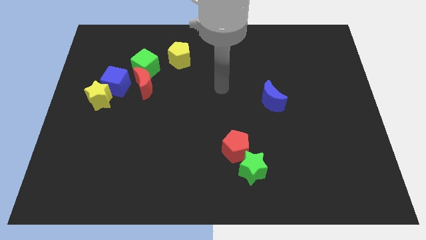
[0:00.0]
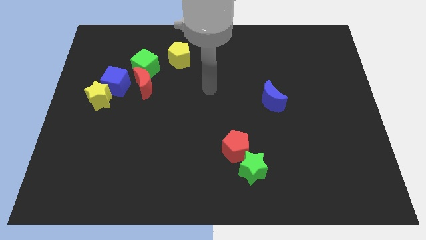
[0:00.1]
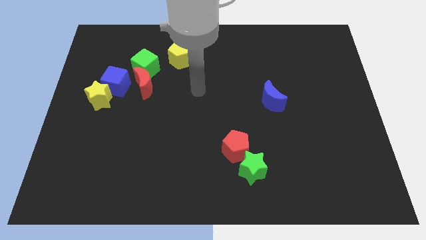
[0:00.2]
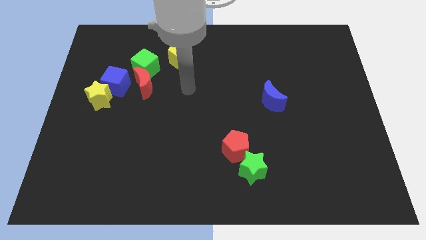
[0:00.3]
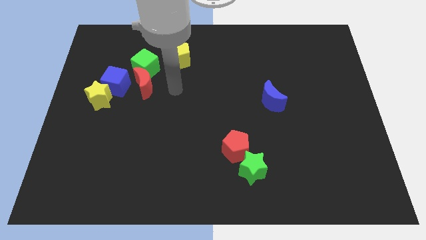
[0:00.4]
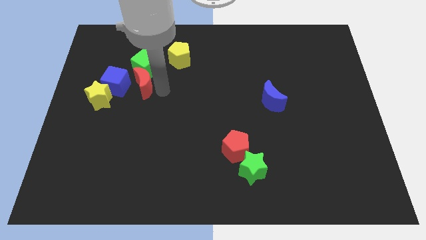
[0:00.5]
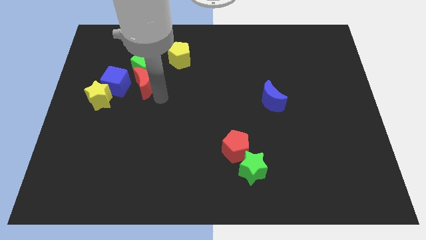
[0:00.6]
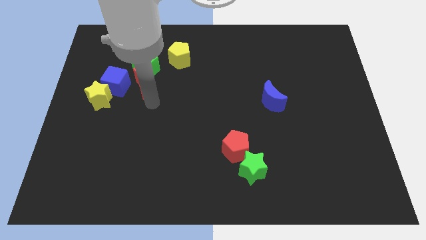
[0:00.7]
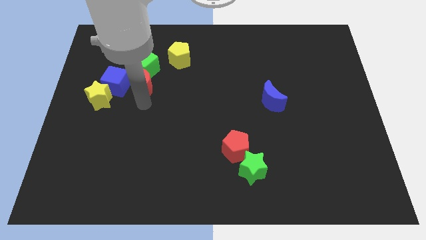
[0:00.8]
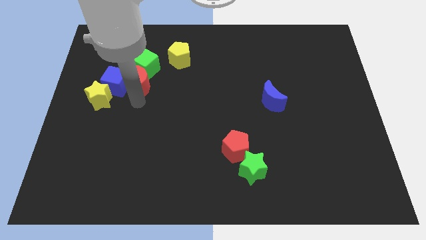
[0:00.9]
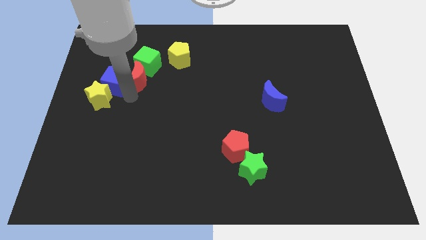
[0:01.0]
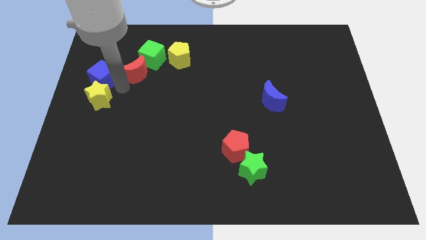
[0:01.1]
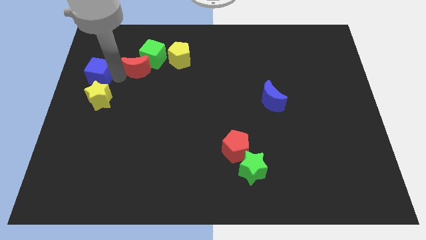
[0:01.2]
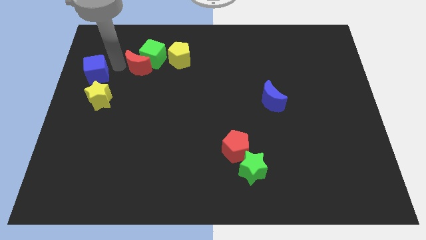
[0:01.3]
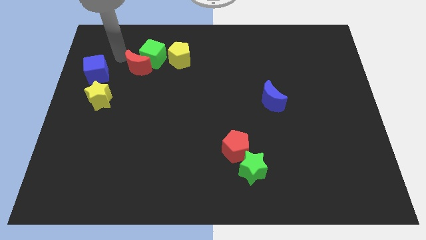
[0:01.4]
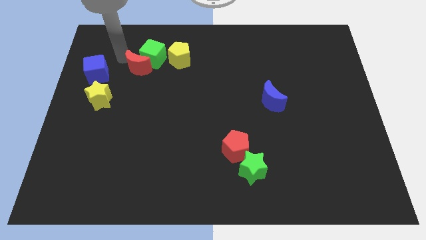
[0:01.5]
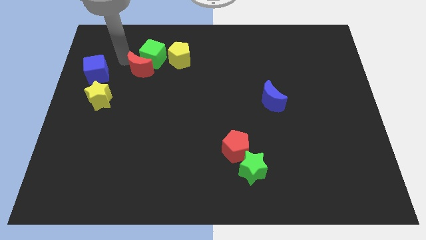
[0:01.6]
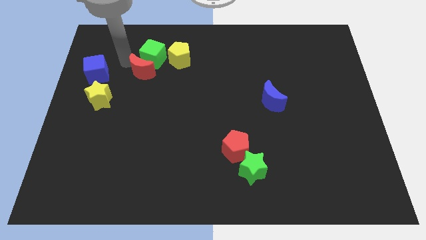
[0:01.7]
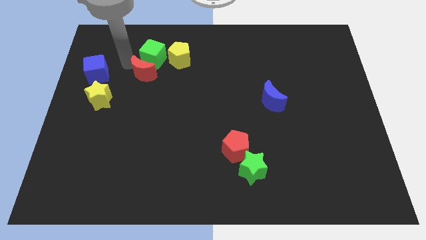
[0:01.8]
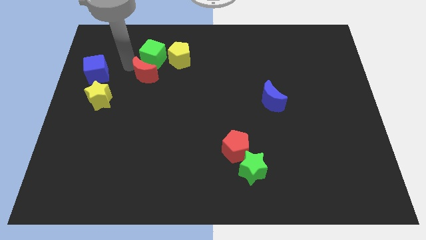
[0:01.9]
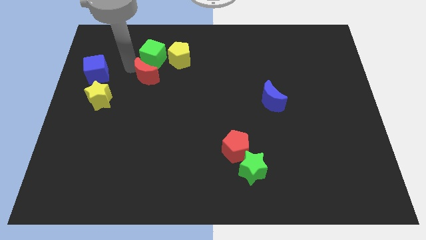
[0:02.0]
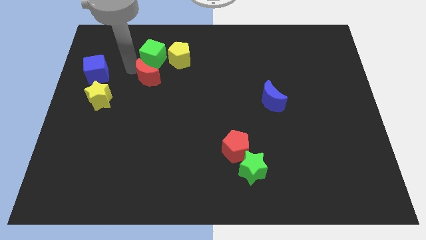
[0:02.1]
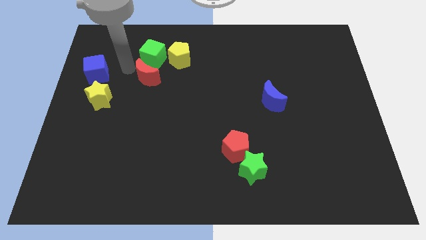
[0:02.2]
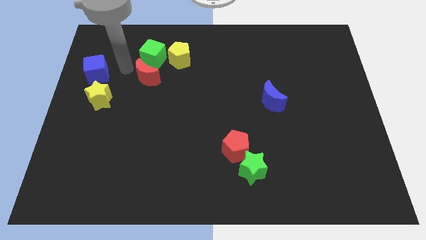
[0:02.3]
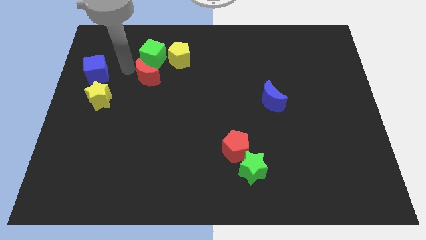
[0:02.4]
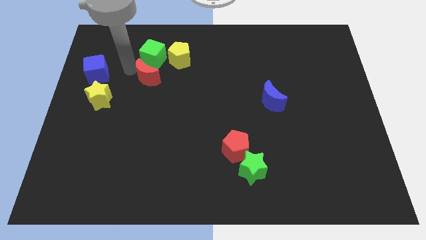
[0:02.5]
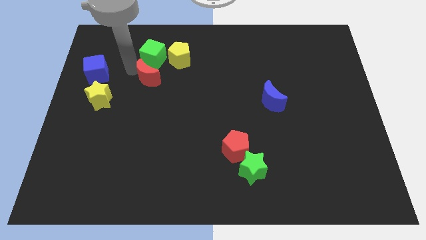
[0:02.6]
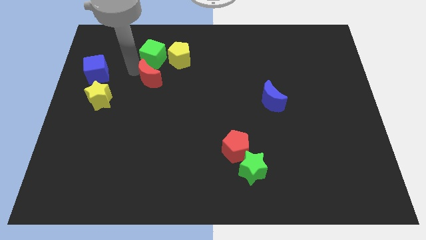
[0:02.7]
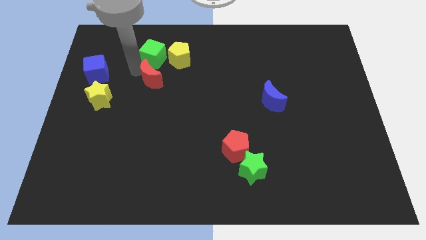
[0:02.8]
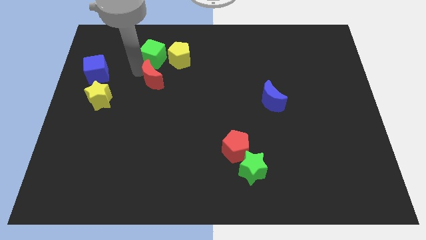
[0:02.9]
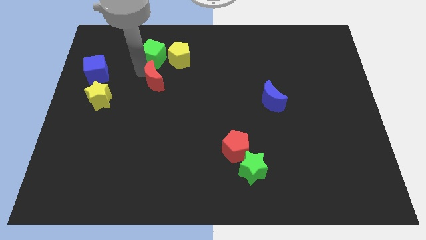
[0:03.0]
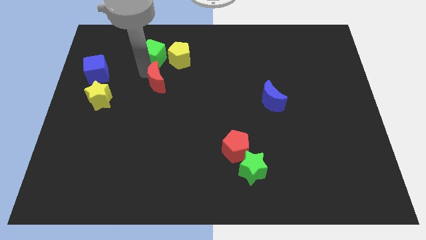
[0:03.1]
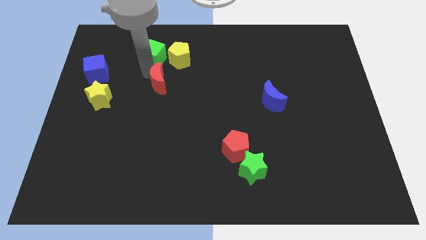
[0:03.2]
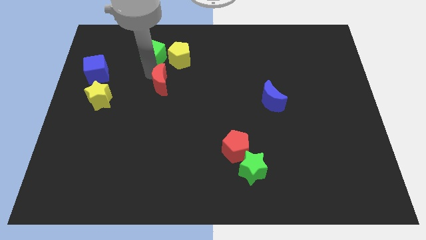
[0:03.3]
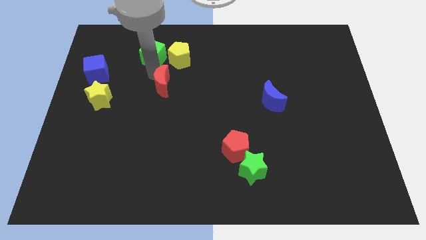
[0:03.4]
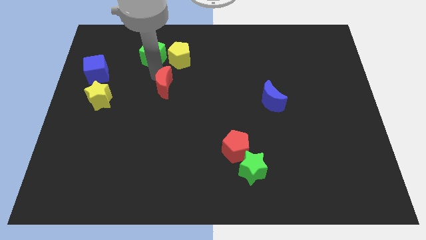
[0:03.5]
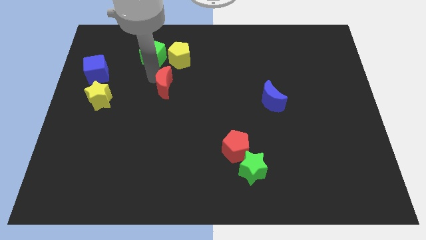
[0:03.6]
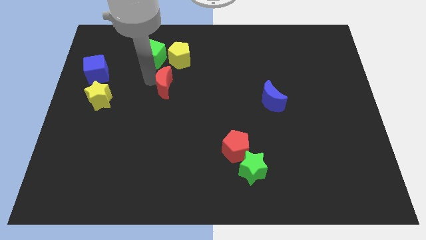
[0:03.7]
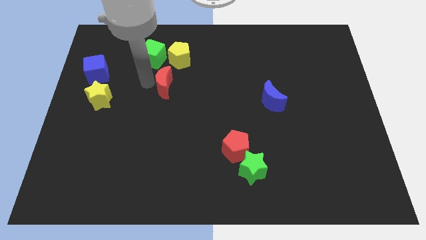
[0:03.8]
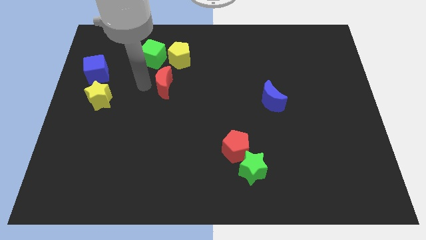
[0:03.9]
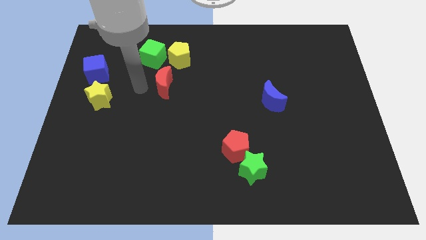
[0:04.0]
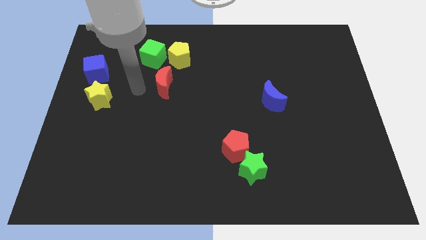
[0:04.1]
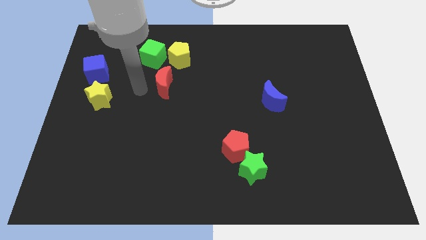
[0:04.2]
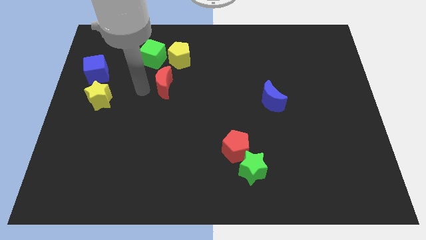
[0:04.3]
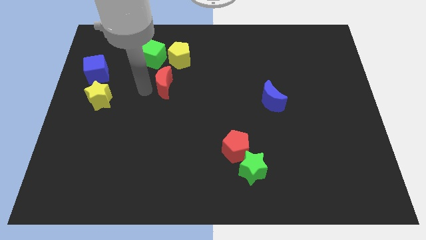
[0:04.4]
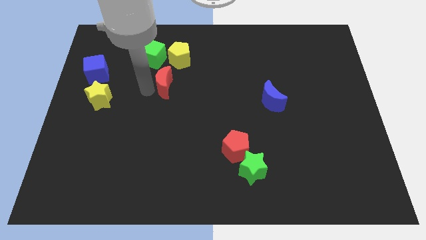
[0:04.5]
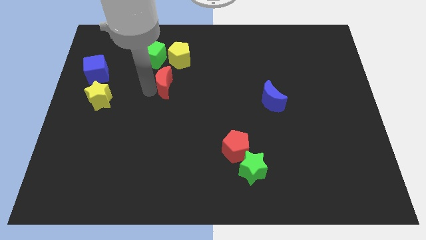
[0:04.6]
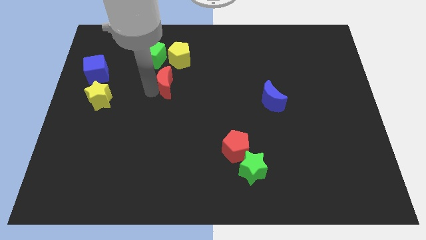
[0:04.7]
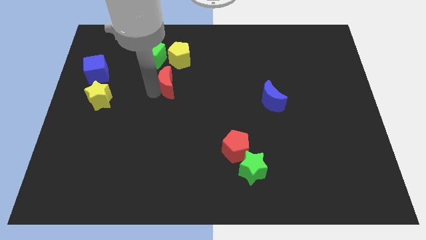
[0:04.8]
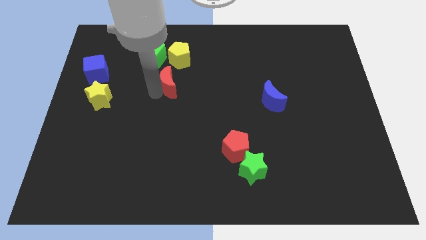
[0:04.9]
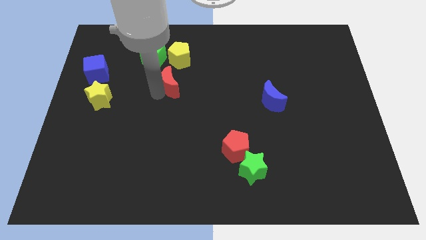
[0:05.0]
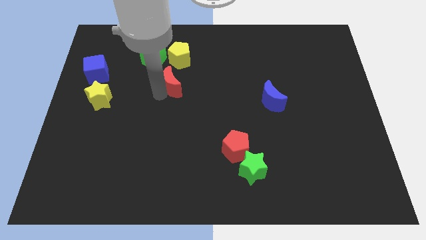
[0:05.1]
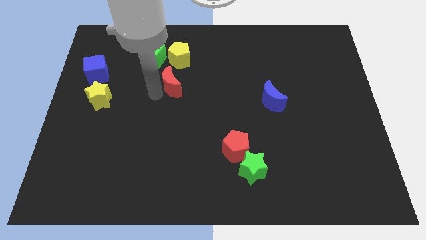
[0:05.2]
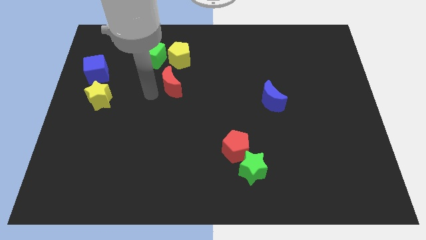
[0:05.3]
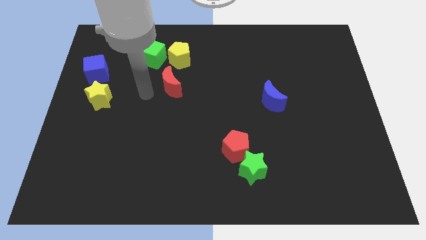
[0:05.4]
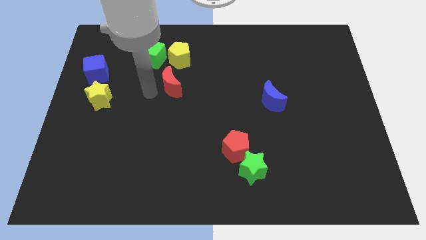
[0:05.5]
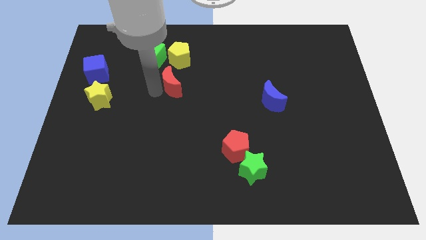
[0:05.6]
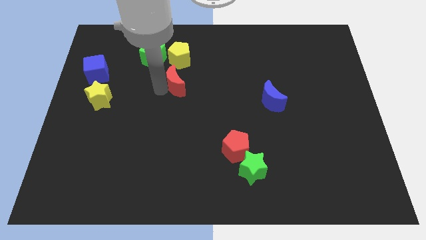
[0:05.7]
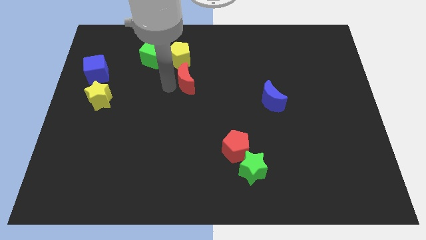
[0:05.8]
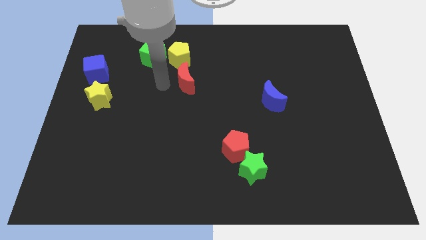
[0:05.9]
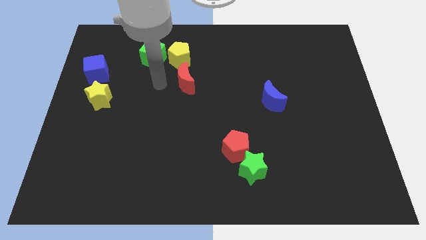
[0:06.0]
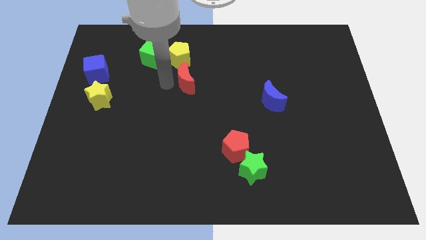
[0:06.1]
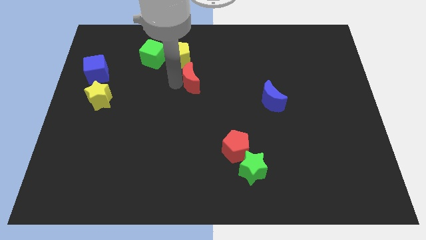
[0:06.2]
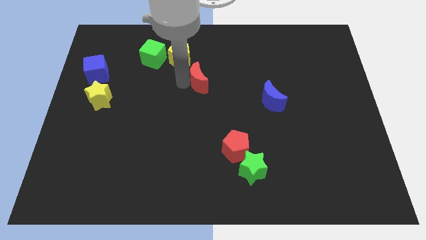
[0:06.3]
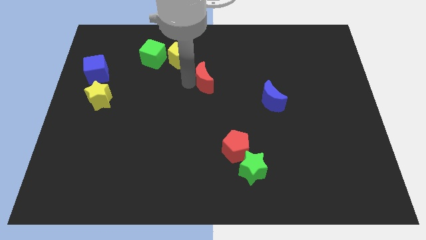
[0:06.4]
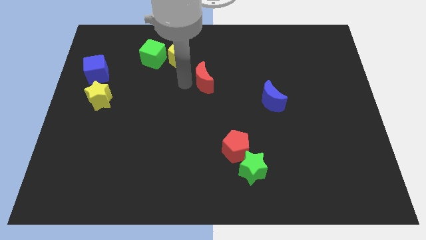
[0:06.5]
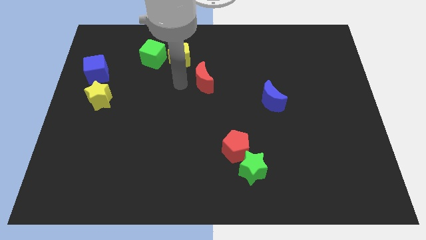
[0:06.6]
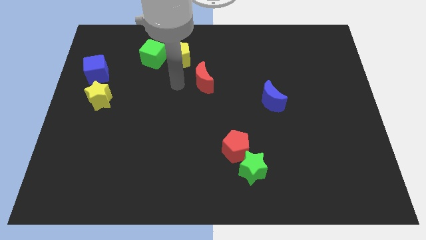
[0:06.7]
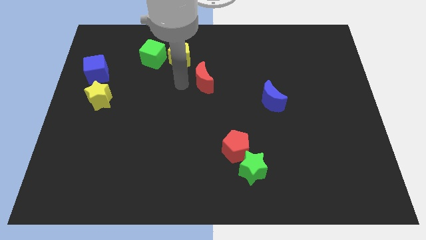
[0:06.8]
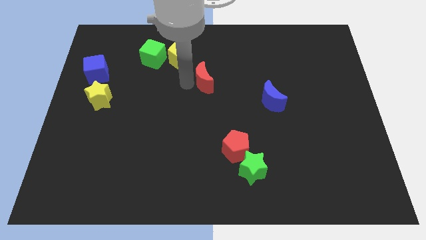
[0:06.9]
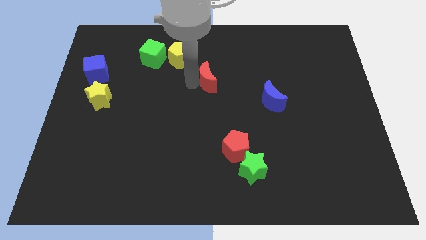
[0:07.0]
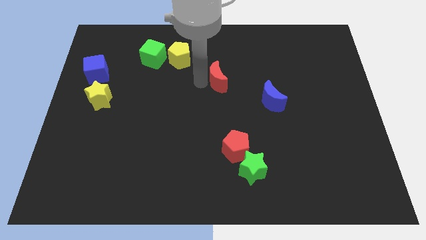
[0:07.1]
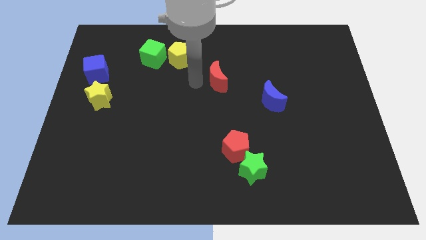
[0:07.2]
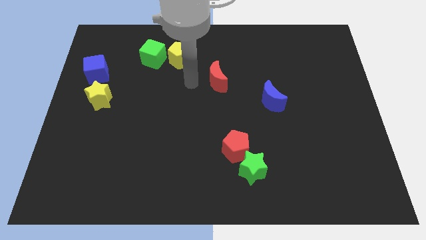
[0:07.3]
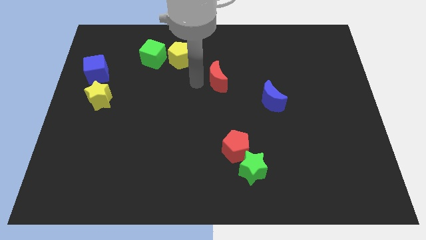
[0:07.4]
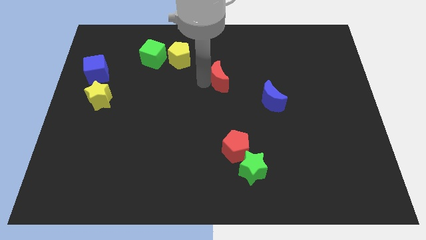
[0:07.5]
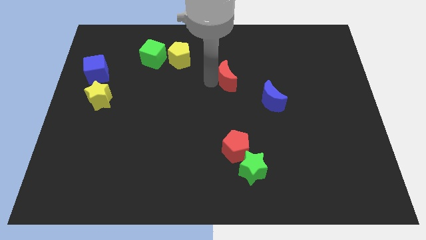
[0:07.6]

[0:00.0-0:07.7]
push the red moon to the right

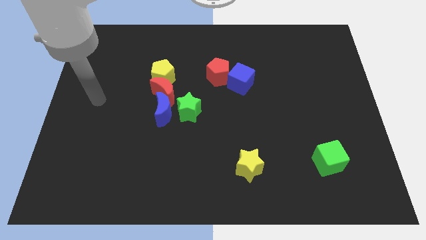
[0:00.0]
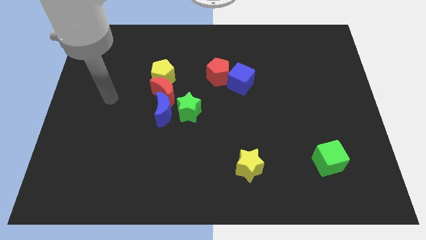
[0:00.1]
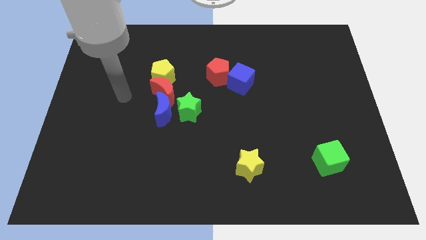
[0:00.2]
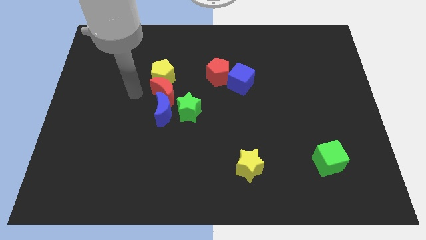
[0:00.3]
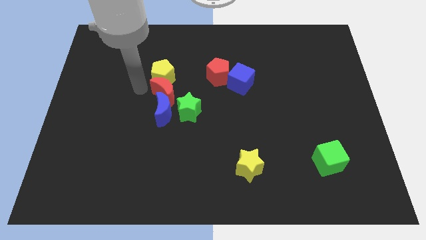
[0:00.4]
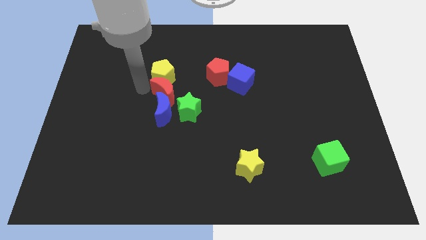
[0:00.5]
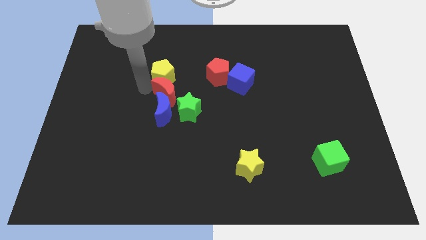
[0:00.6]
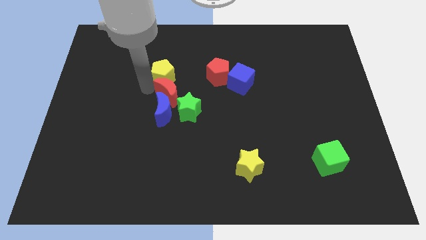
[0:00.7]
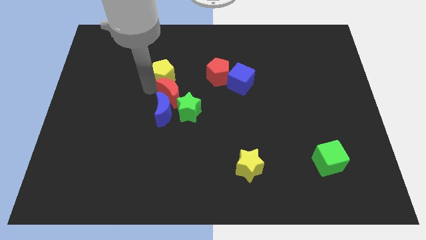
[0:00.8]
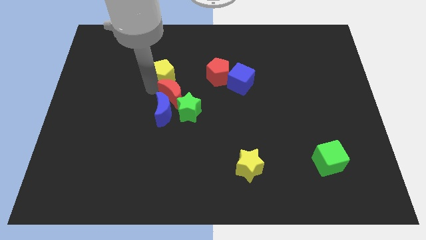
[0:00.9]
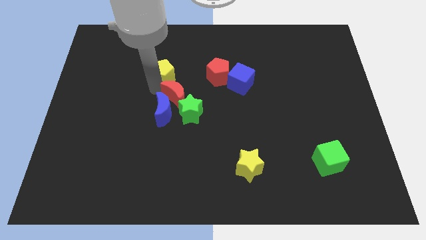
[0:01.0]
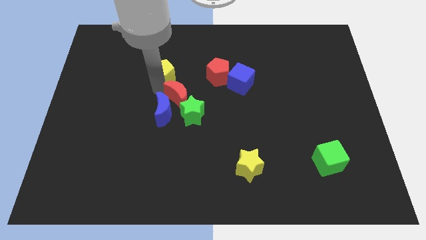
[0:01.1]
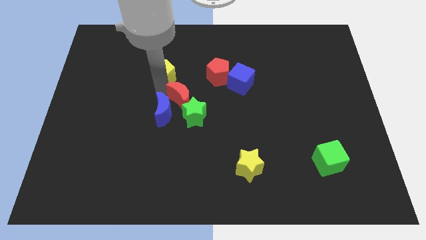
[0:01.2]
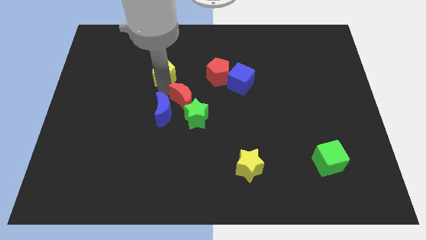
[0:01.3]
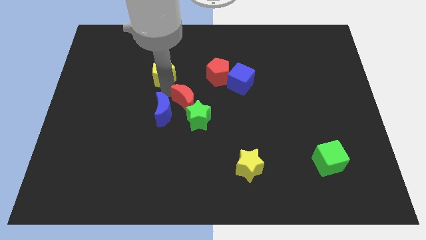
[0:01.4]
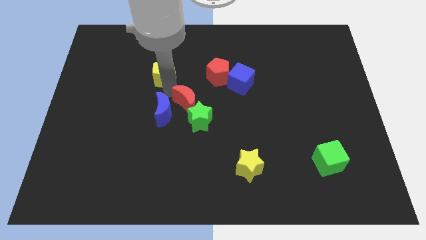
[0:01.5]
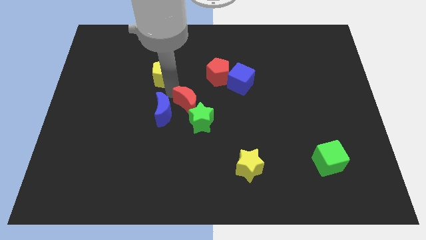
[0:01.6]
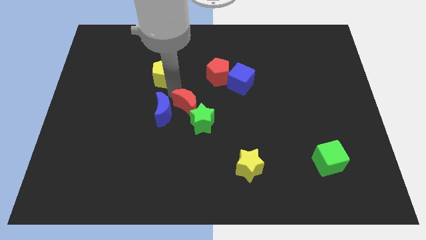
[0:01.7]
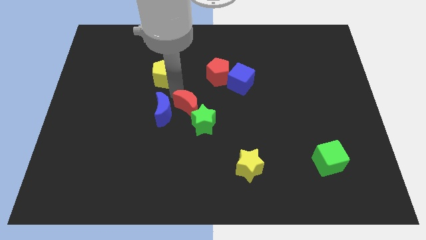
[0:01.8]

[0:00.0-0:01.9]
push the red moon down and to the right a little
